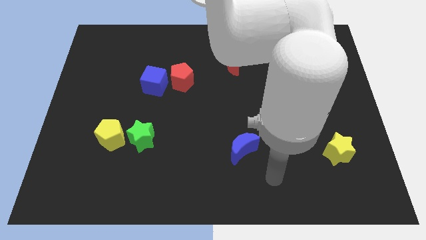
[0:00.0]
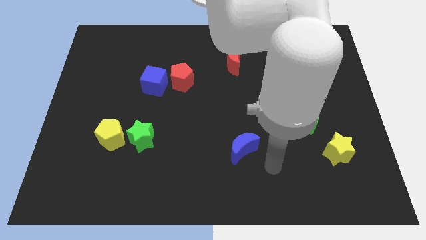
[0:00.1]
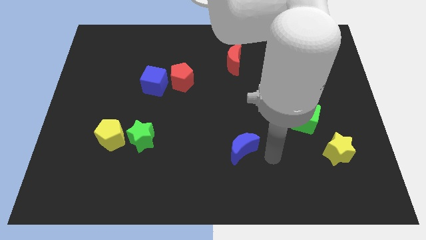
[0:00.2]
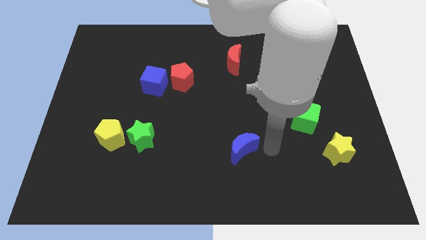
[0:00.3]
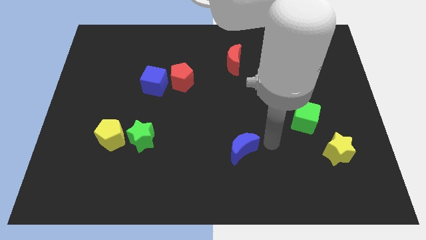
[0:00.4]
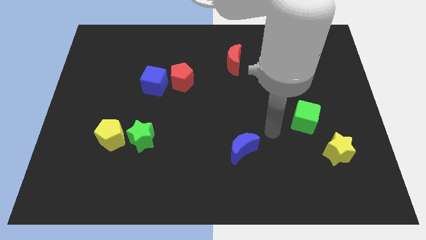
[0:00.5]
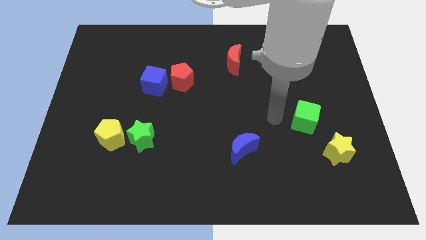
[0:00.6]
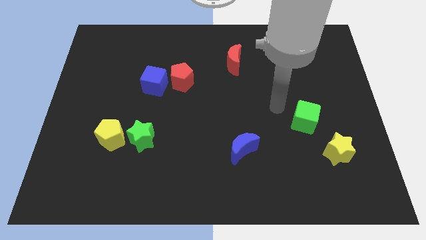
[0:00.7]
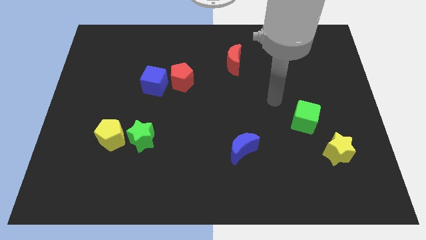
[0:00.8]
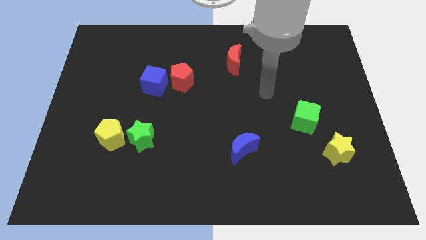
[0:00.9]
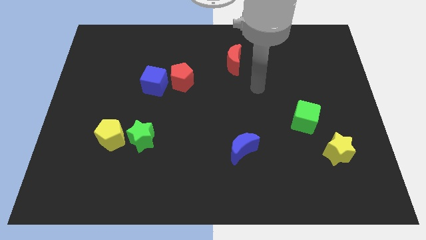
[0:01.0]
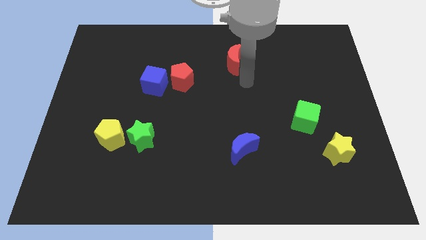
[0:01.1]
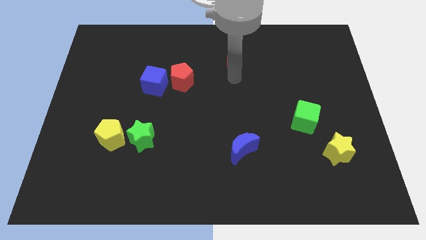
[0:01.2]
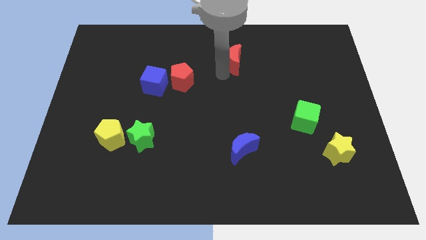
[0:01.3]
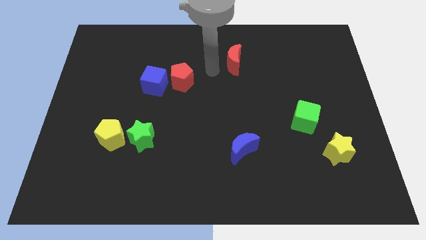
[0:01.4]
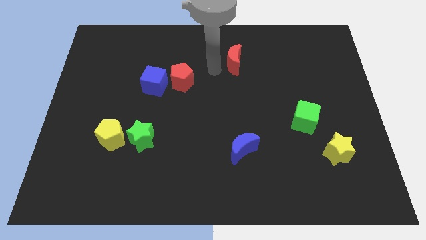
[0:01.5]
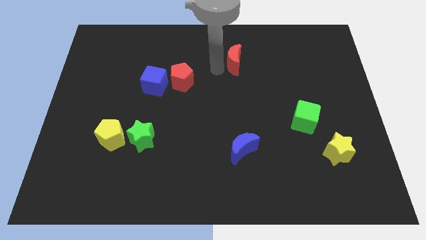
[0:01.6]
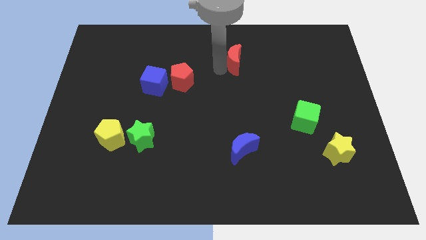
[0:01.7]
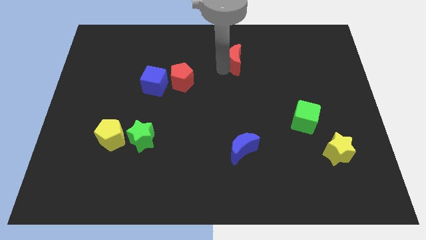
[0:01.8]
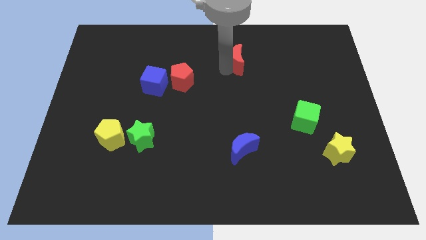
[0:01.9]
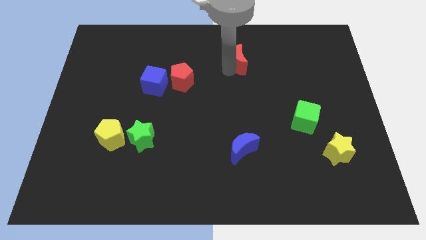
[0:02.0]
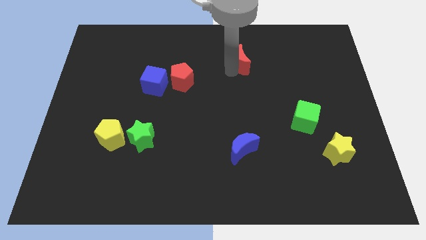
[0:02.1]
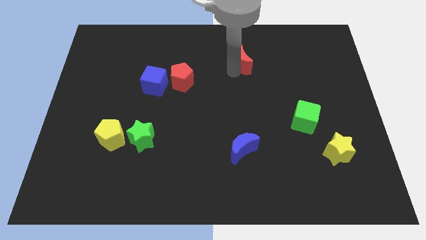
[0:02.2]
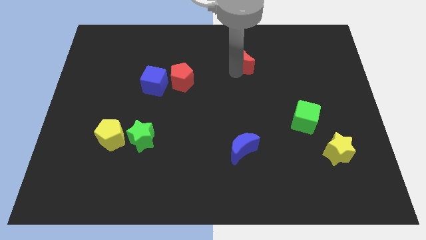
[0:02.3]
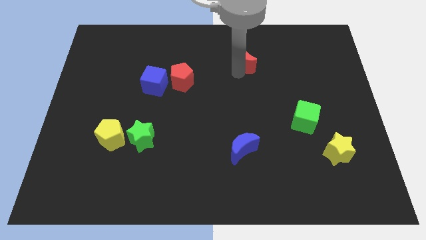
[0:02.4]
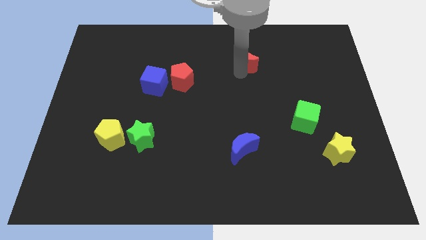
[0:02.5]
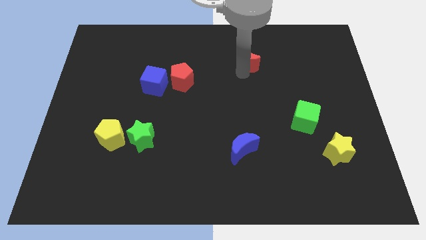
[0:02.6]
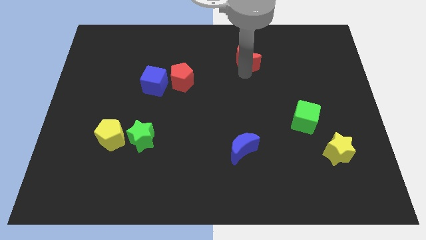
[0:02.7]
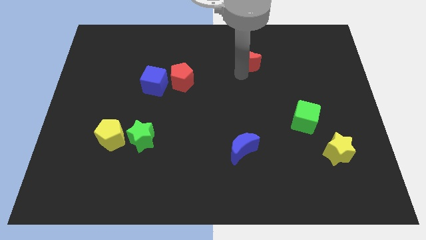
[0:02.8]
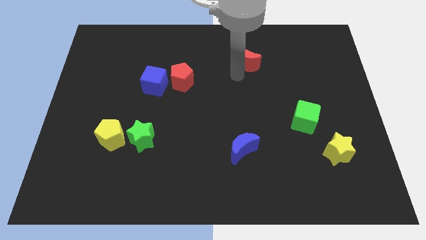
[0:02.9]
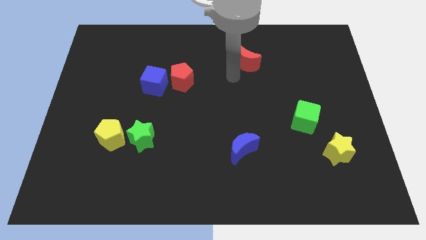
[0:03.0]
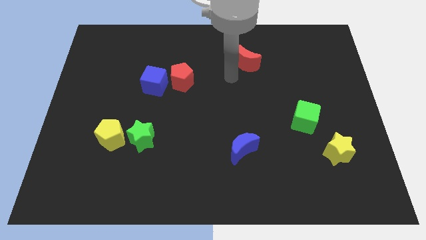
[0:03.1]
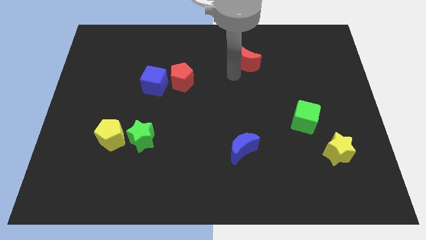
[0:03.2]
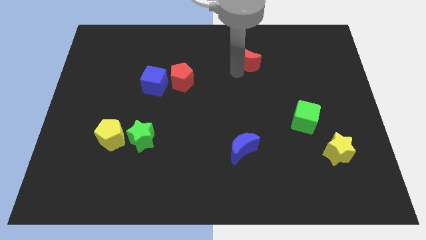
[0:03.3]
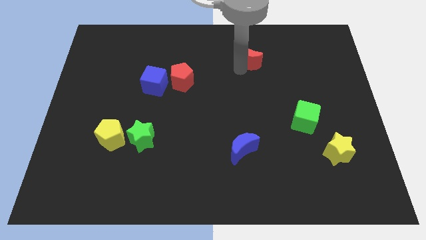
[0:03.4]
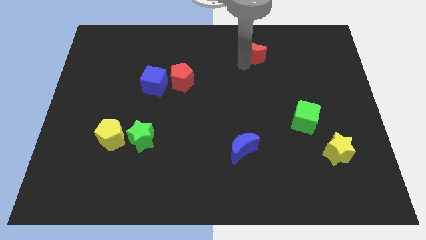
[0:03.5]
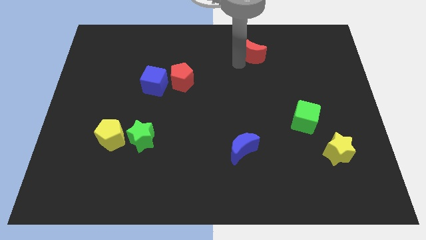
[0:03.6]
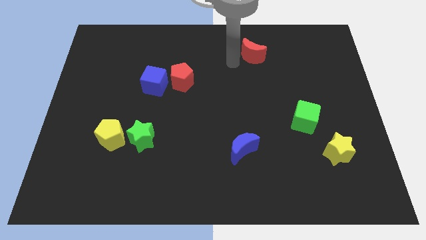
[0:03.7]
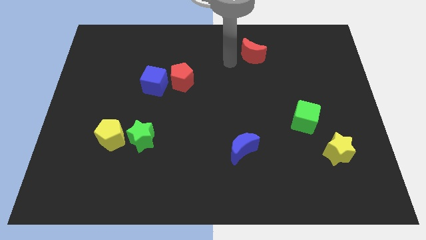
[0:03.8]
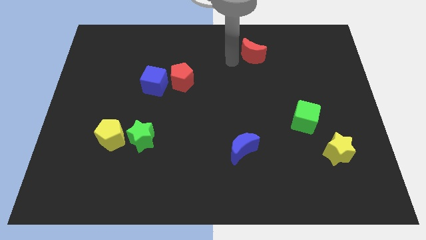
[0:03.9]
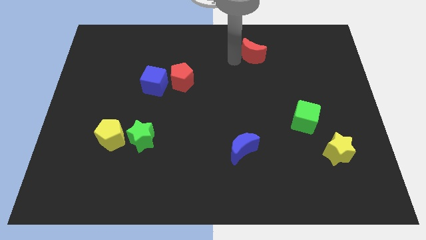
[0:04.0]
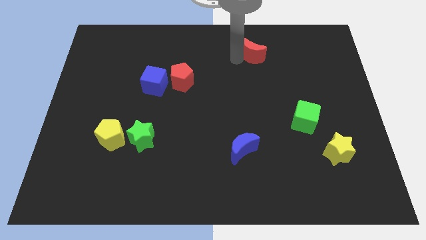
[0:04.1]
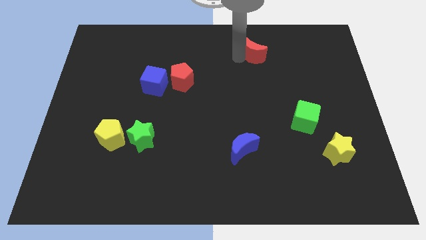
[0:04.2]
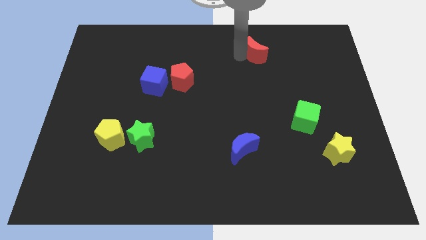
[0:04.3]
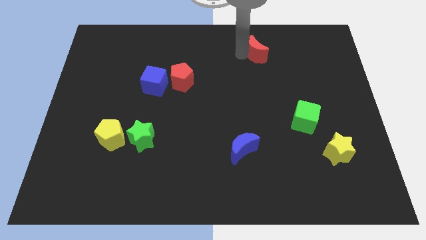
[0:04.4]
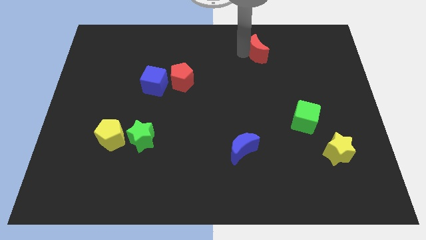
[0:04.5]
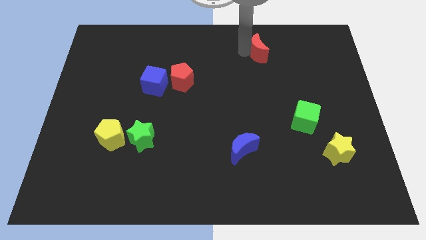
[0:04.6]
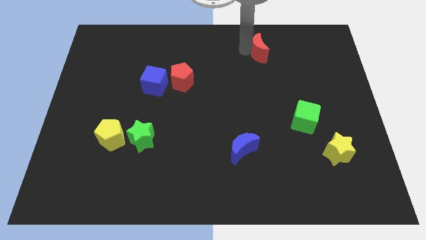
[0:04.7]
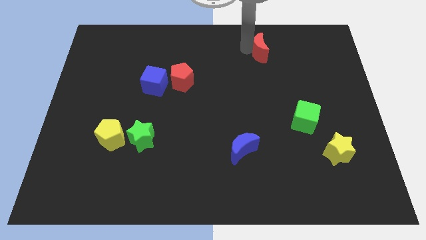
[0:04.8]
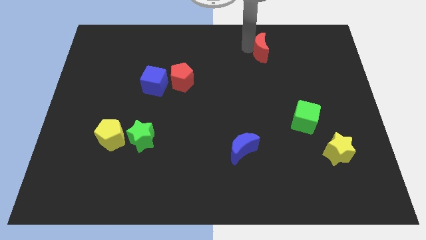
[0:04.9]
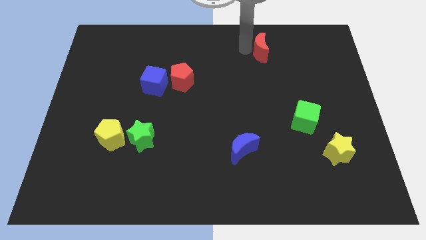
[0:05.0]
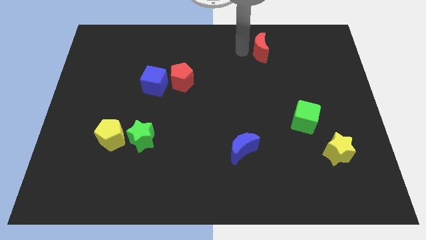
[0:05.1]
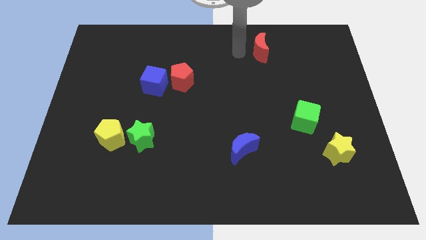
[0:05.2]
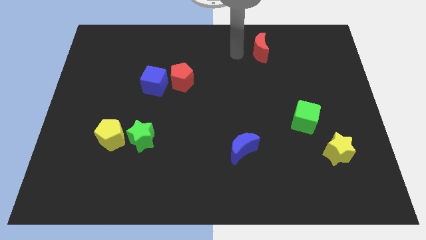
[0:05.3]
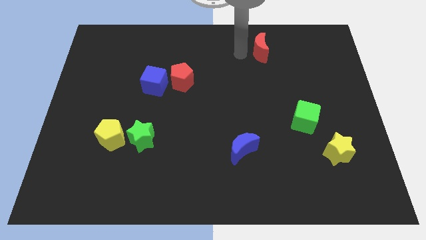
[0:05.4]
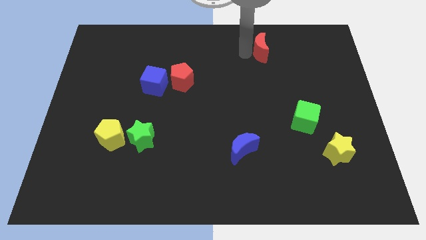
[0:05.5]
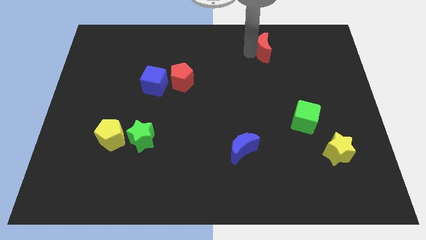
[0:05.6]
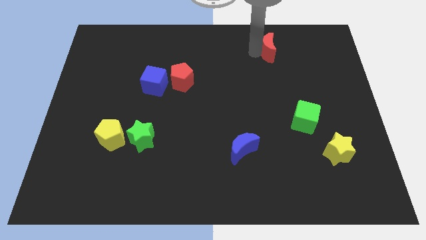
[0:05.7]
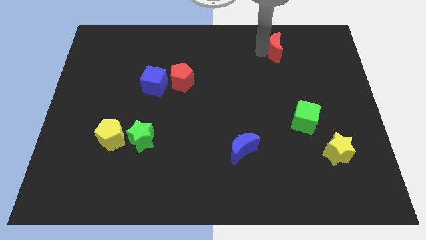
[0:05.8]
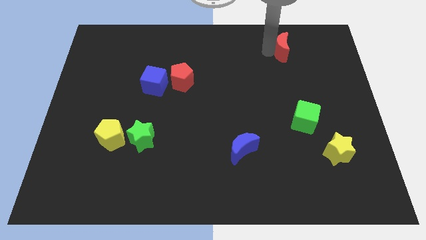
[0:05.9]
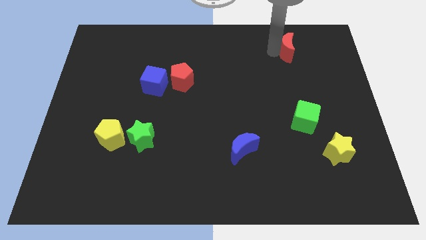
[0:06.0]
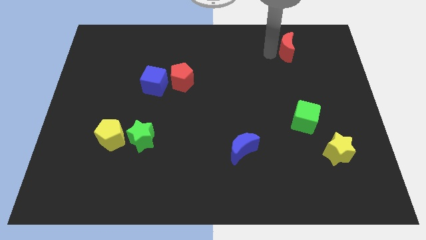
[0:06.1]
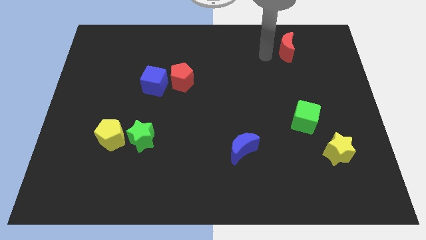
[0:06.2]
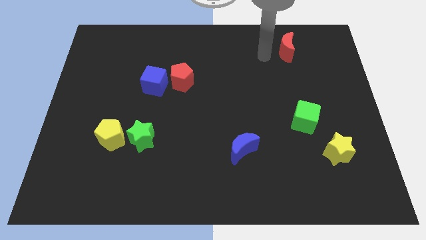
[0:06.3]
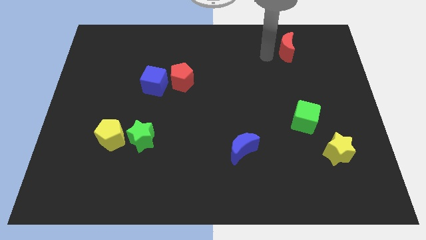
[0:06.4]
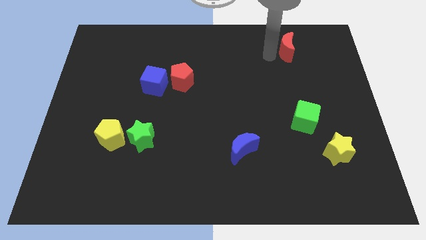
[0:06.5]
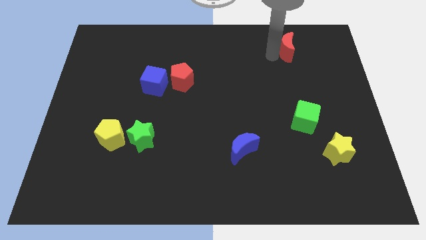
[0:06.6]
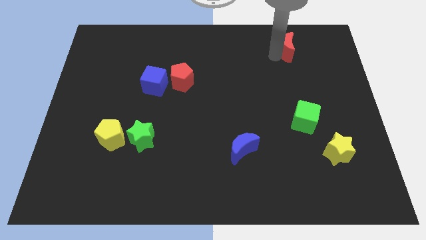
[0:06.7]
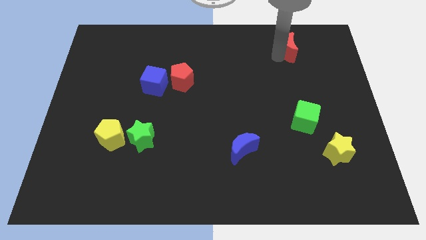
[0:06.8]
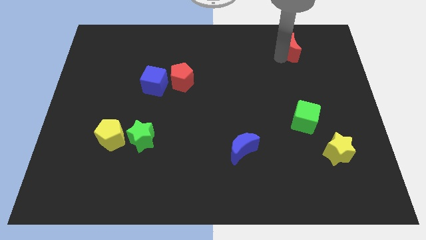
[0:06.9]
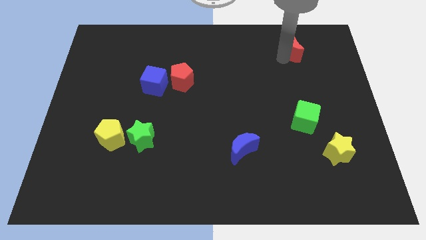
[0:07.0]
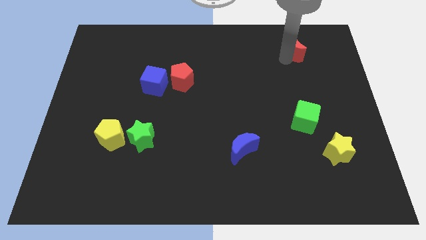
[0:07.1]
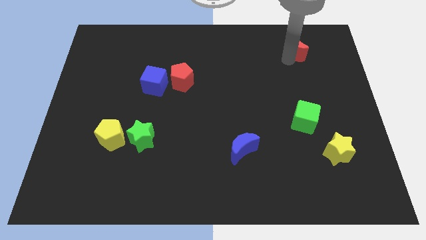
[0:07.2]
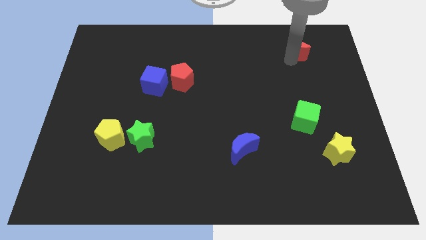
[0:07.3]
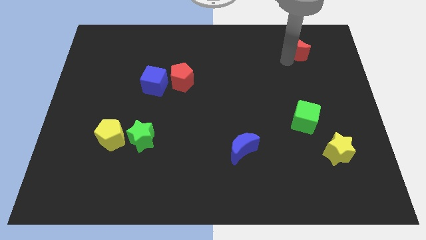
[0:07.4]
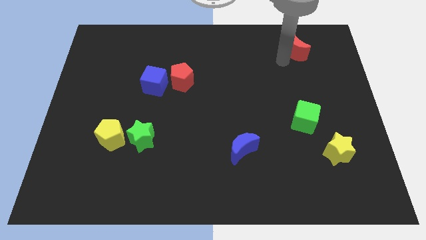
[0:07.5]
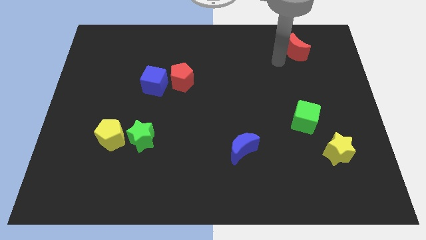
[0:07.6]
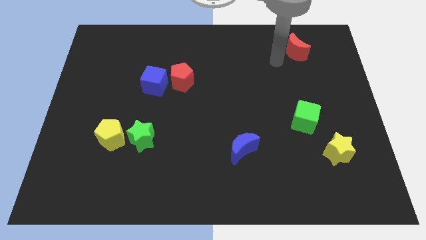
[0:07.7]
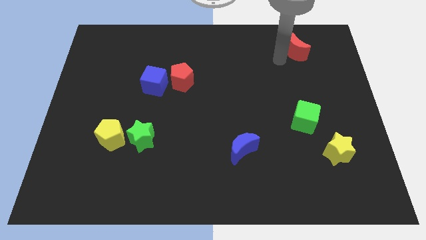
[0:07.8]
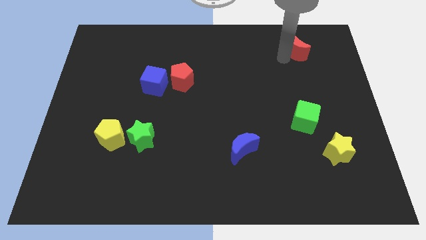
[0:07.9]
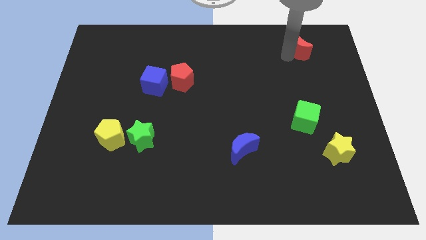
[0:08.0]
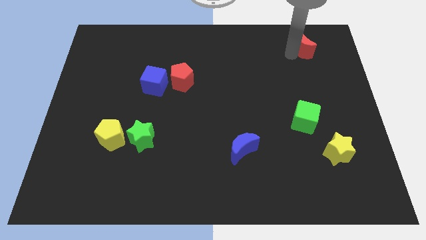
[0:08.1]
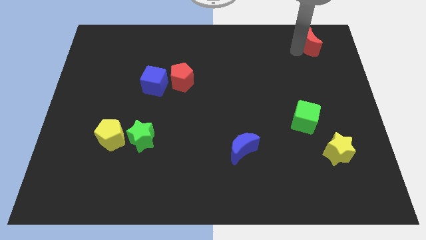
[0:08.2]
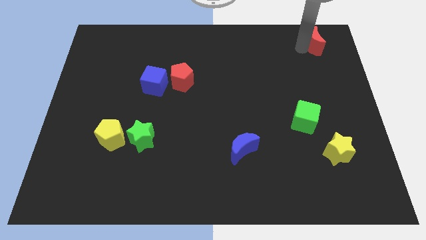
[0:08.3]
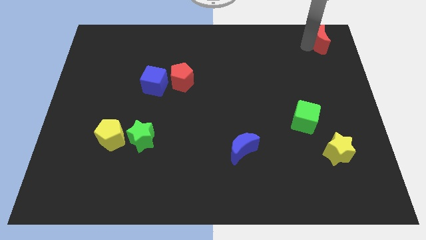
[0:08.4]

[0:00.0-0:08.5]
put the red moon to the top right corner
